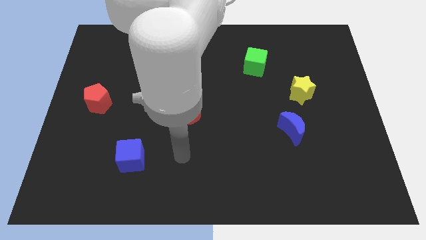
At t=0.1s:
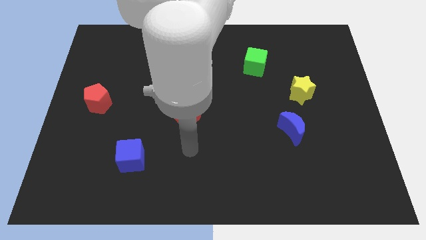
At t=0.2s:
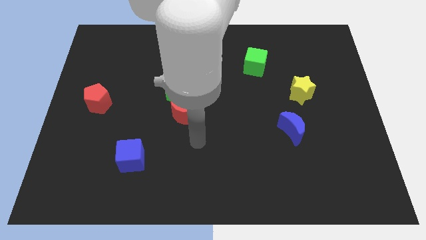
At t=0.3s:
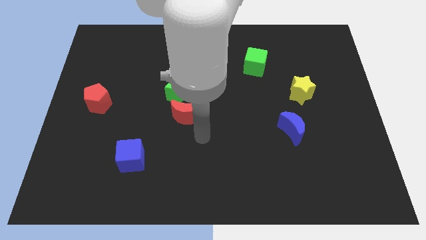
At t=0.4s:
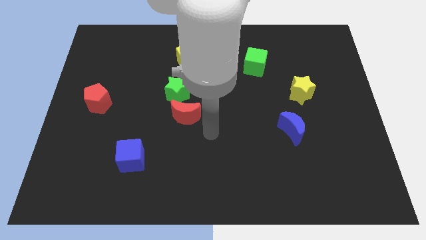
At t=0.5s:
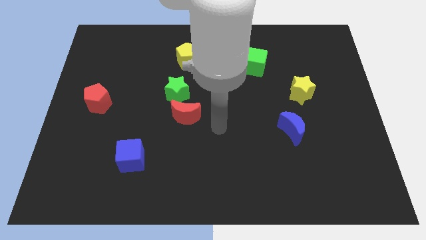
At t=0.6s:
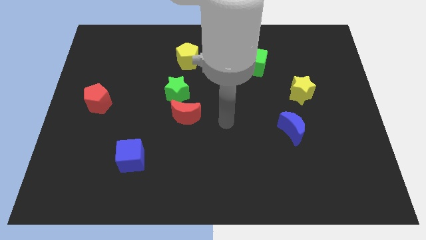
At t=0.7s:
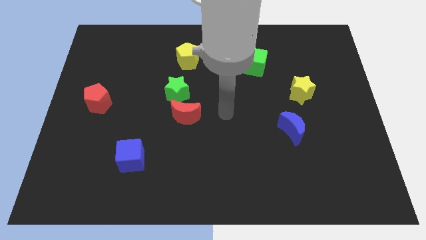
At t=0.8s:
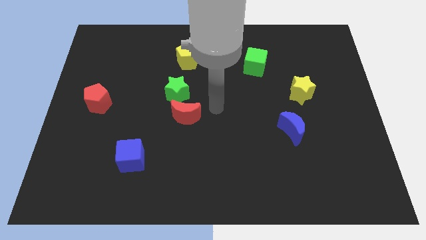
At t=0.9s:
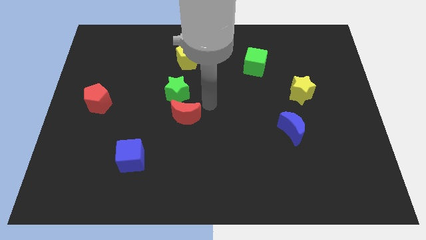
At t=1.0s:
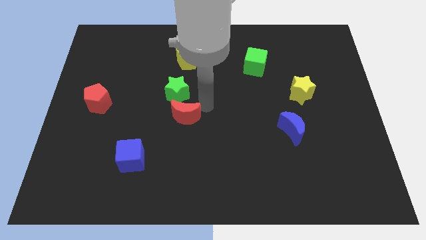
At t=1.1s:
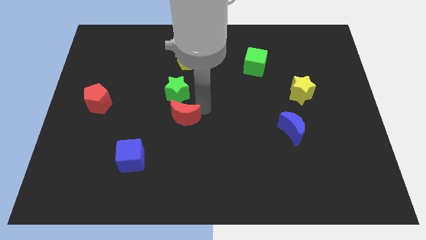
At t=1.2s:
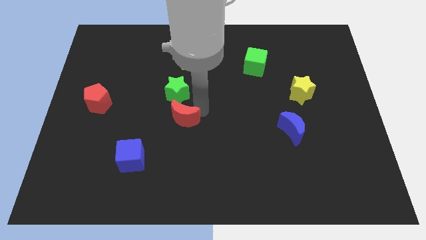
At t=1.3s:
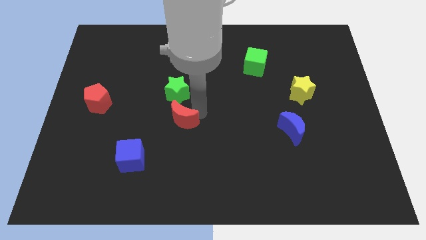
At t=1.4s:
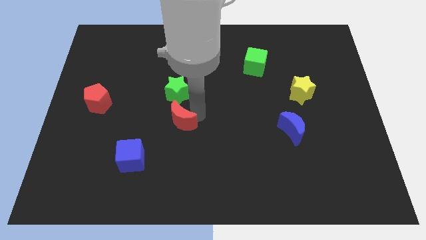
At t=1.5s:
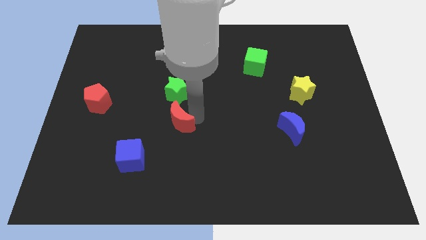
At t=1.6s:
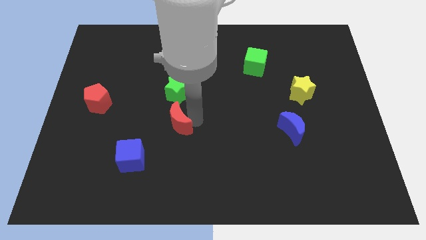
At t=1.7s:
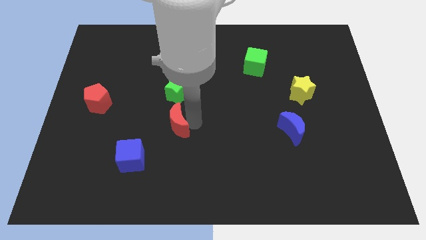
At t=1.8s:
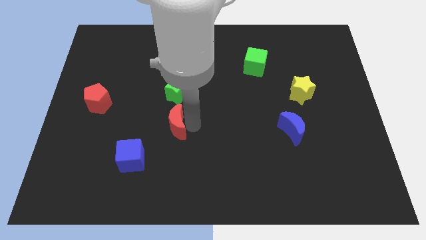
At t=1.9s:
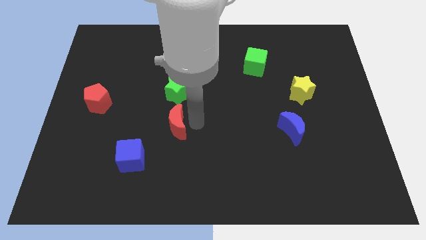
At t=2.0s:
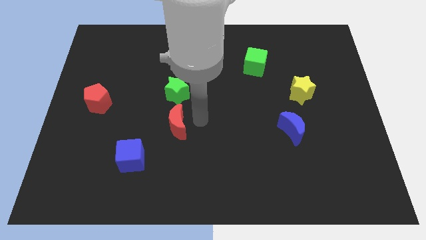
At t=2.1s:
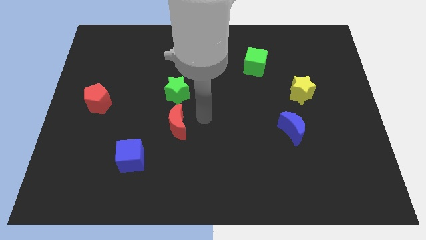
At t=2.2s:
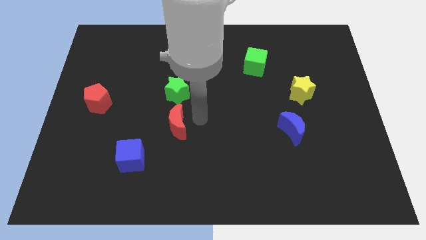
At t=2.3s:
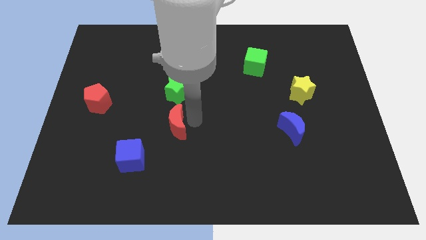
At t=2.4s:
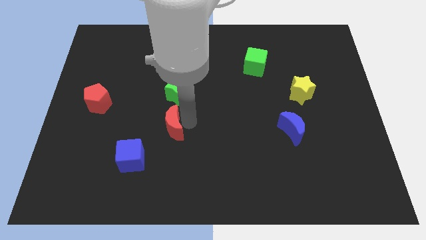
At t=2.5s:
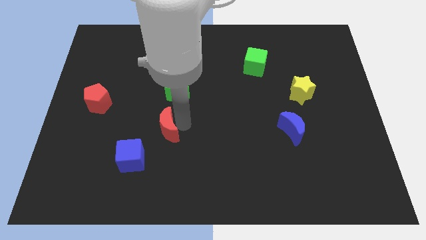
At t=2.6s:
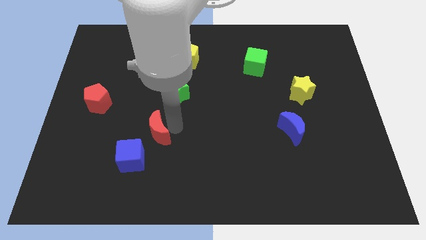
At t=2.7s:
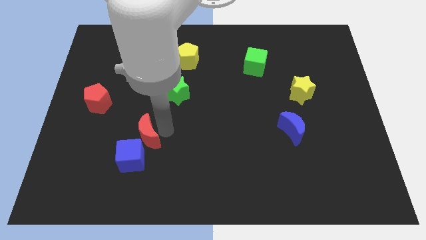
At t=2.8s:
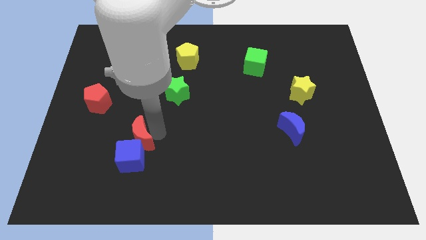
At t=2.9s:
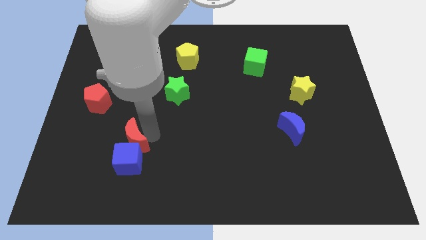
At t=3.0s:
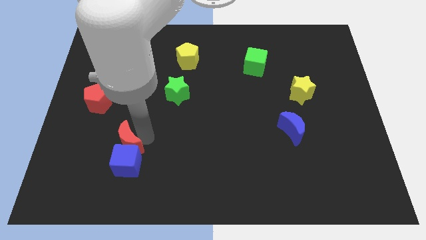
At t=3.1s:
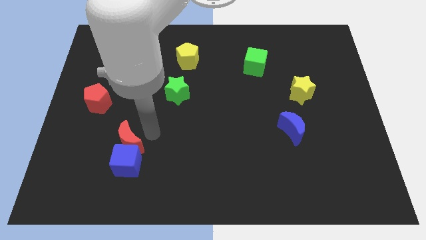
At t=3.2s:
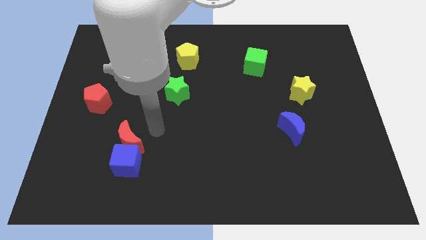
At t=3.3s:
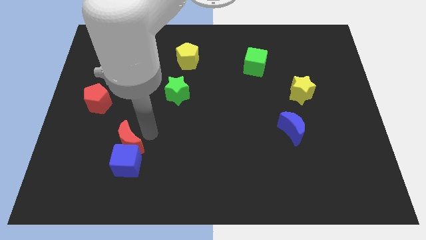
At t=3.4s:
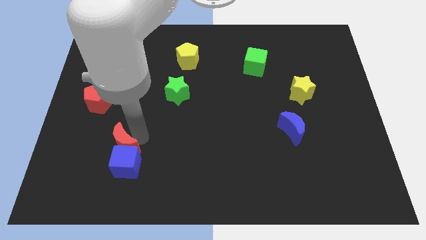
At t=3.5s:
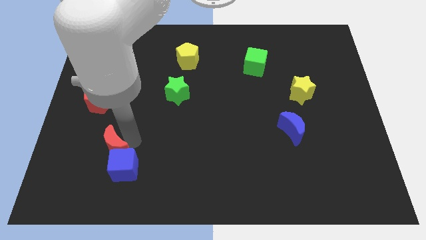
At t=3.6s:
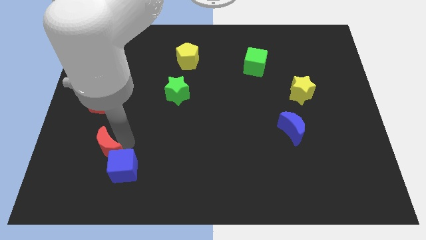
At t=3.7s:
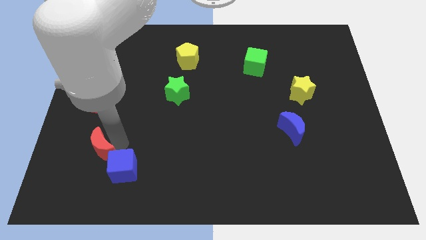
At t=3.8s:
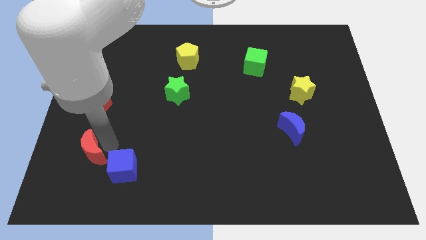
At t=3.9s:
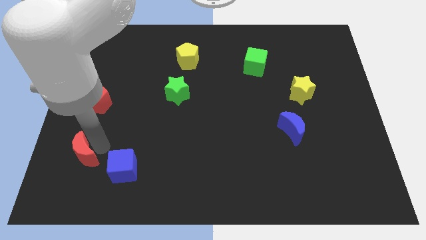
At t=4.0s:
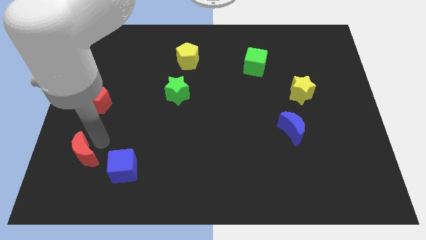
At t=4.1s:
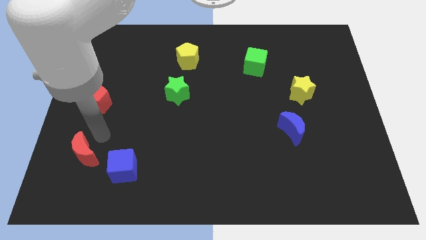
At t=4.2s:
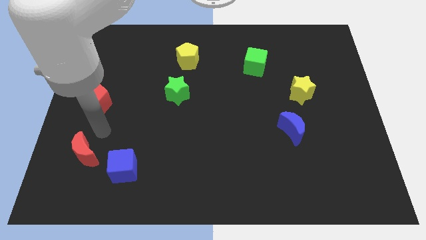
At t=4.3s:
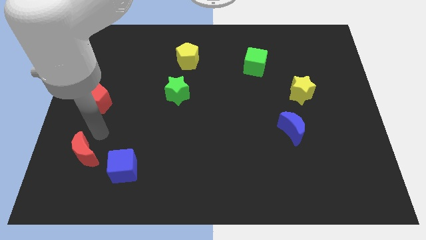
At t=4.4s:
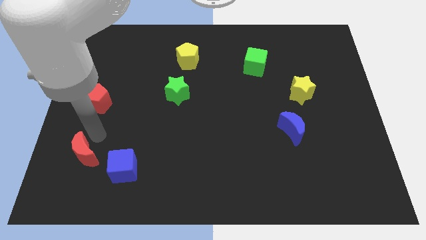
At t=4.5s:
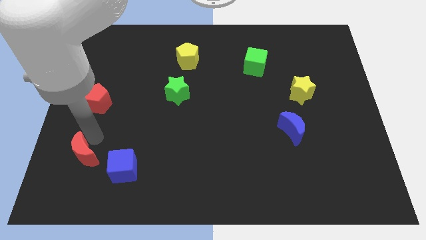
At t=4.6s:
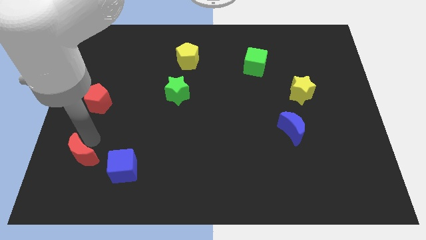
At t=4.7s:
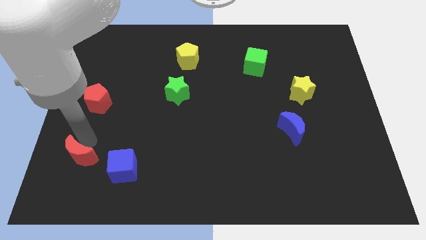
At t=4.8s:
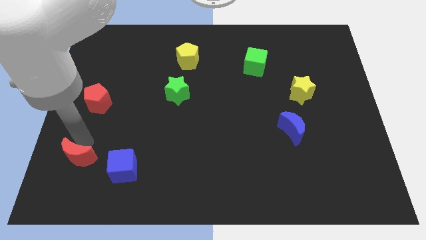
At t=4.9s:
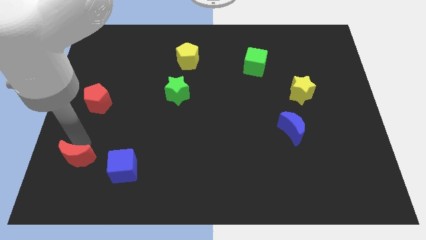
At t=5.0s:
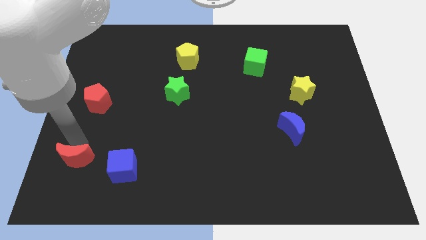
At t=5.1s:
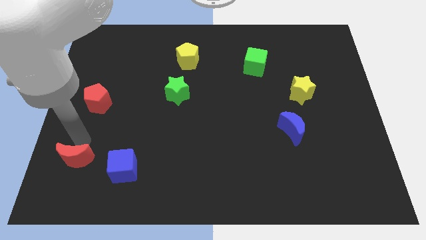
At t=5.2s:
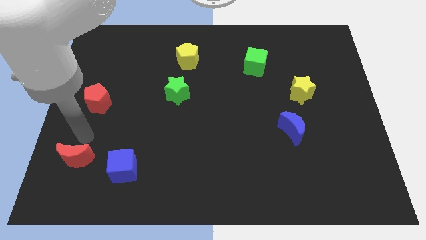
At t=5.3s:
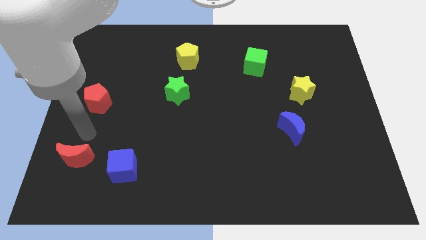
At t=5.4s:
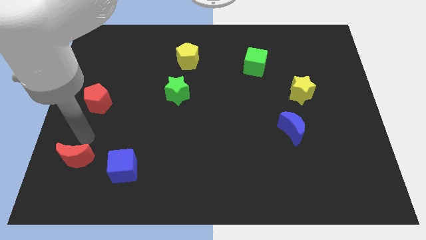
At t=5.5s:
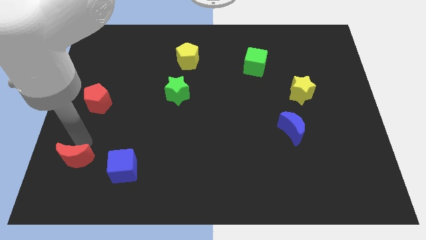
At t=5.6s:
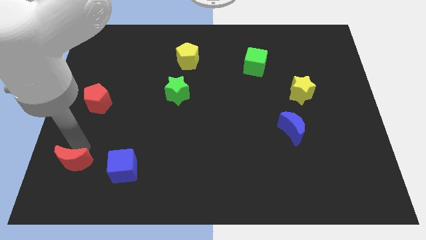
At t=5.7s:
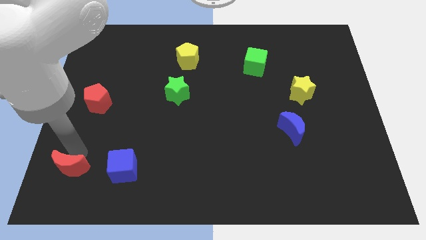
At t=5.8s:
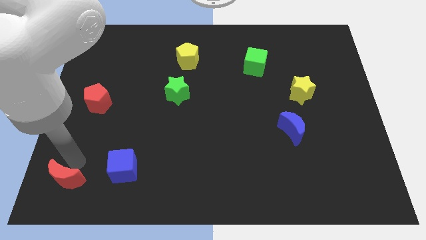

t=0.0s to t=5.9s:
move the red moon to the bottom left of the board
